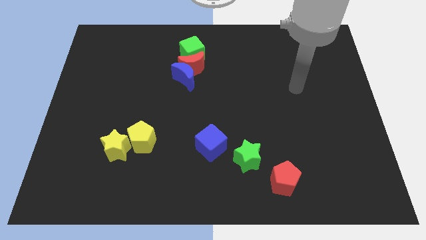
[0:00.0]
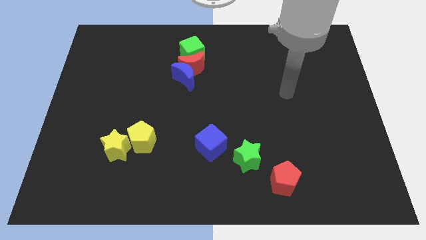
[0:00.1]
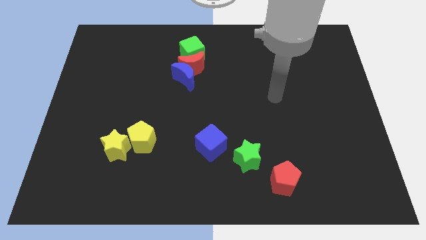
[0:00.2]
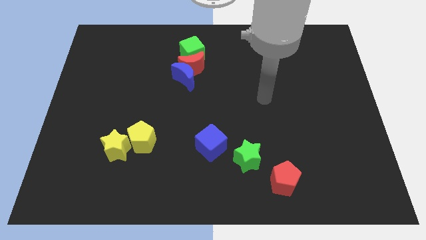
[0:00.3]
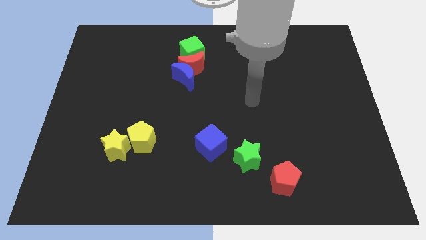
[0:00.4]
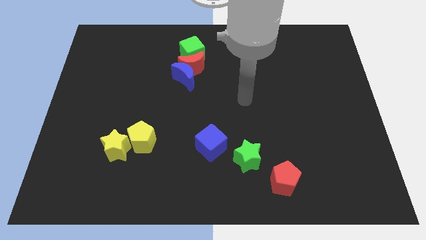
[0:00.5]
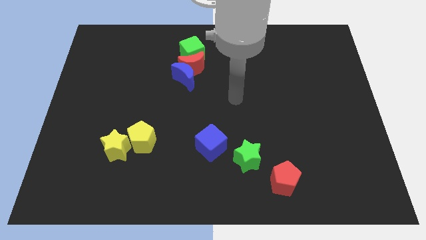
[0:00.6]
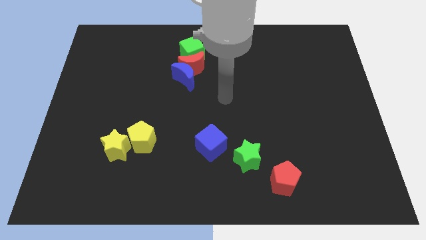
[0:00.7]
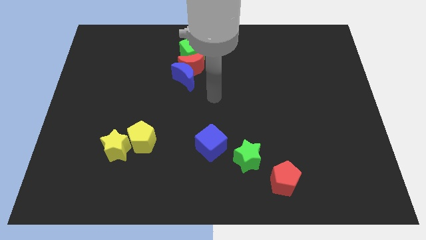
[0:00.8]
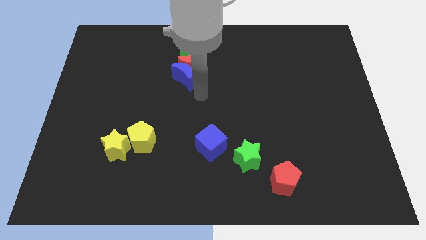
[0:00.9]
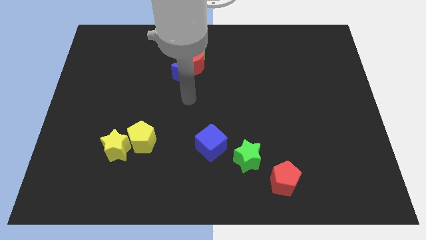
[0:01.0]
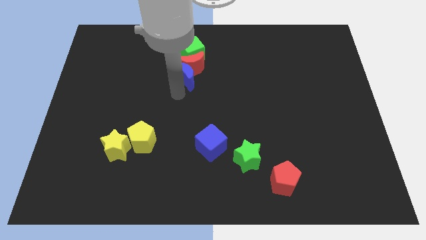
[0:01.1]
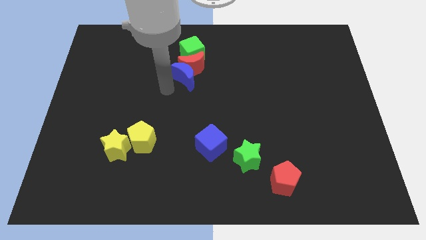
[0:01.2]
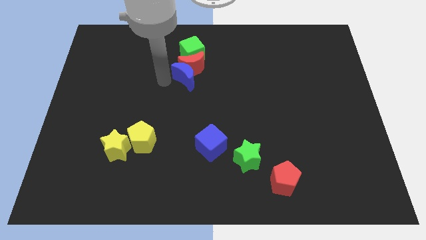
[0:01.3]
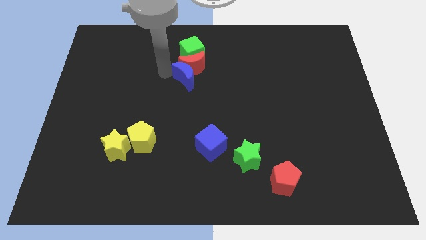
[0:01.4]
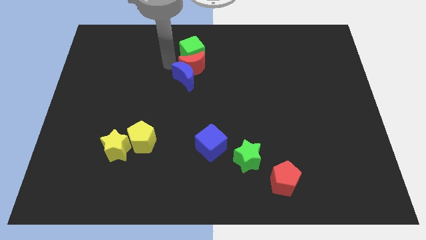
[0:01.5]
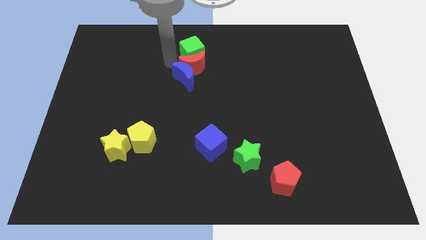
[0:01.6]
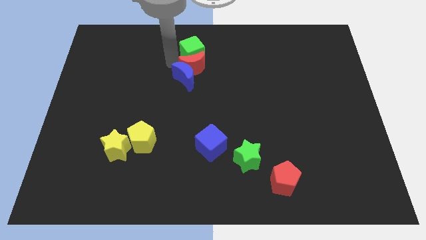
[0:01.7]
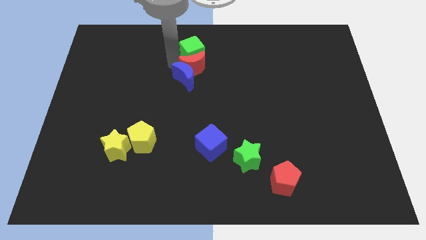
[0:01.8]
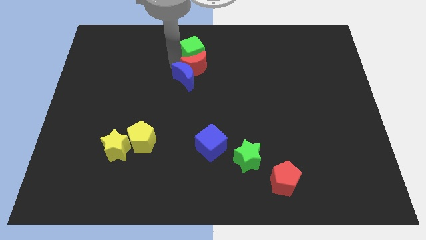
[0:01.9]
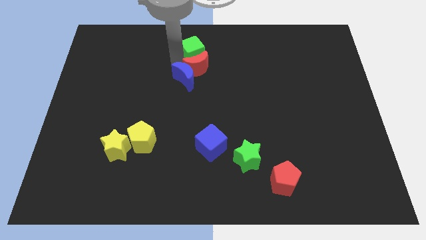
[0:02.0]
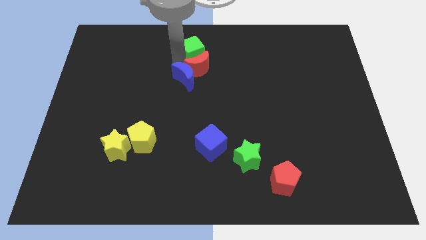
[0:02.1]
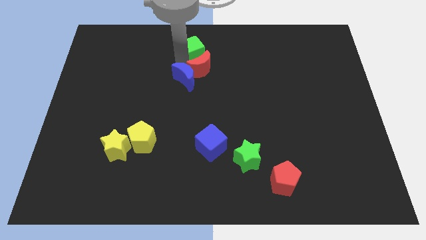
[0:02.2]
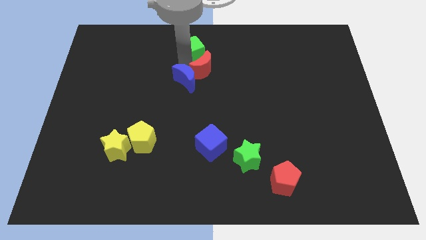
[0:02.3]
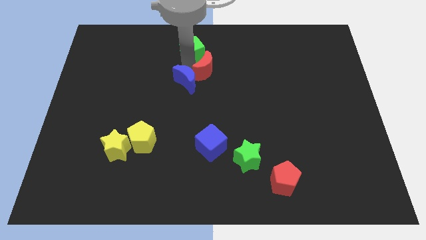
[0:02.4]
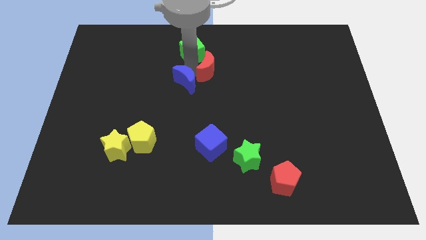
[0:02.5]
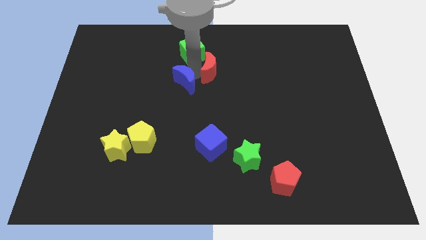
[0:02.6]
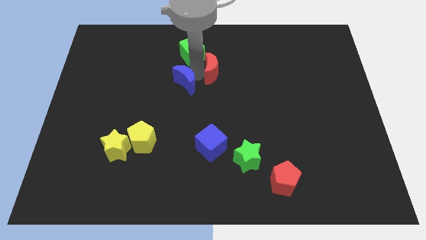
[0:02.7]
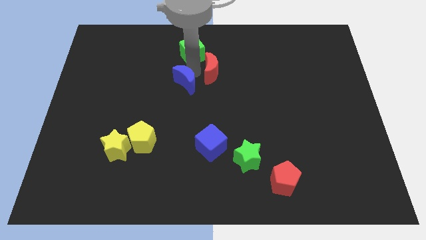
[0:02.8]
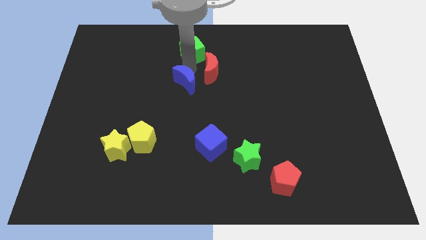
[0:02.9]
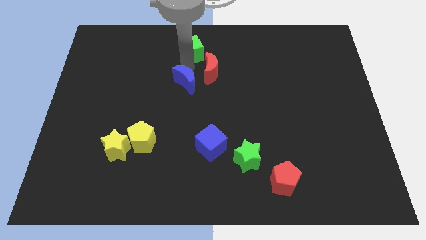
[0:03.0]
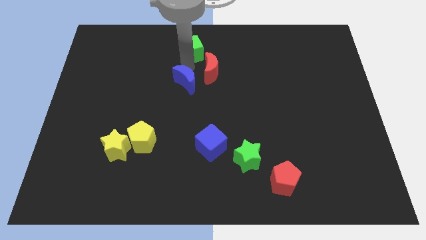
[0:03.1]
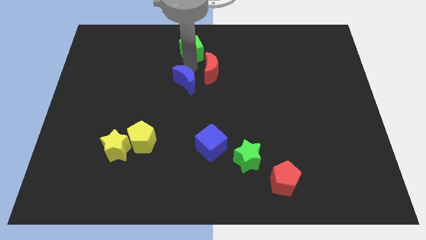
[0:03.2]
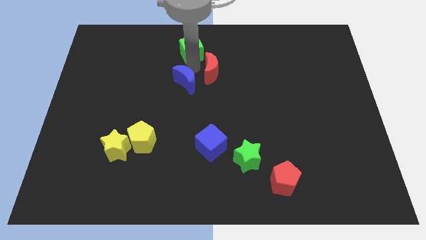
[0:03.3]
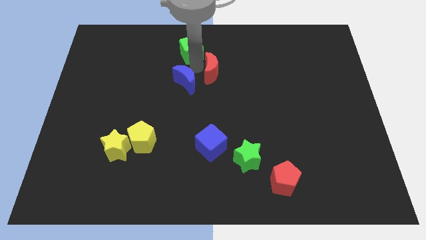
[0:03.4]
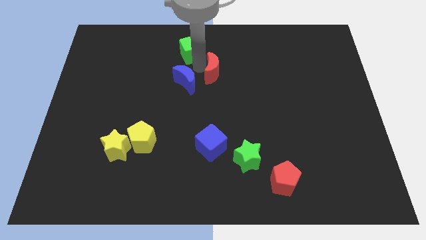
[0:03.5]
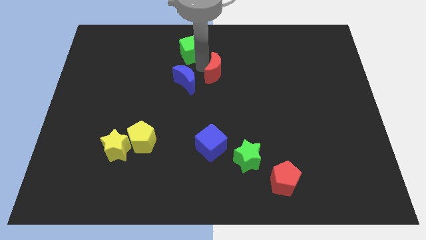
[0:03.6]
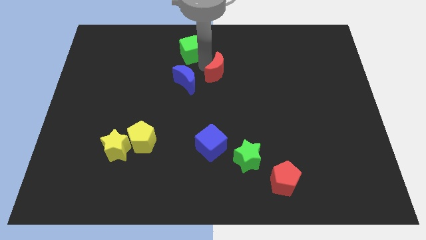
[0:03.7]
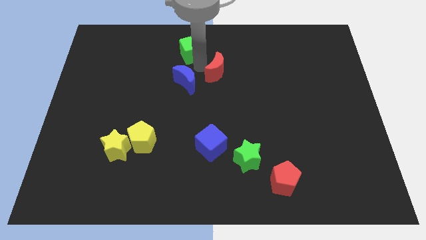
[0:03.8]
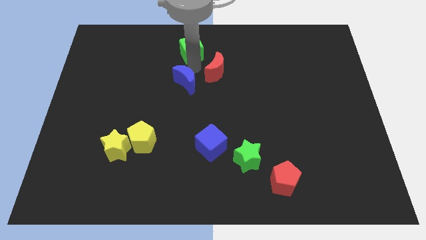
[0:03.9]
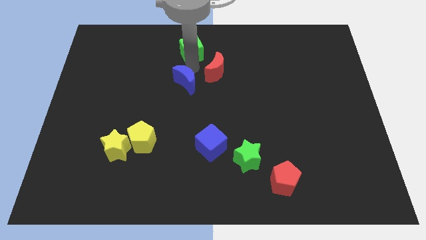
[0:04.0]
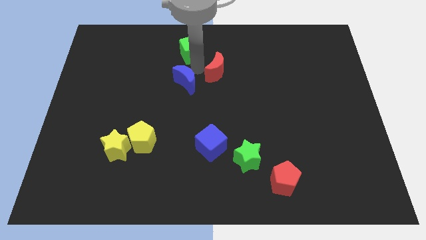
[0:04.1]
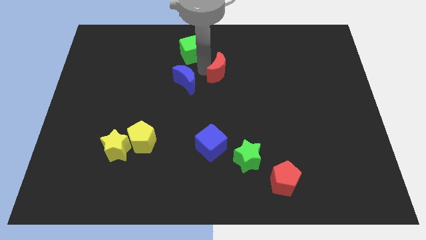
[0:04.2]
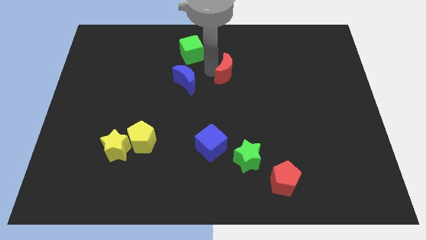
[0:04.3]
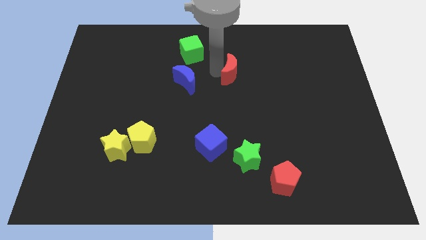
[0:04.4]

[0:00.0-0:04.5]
pull the red moon apart from the blue moon and green cube

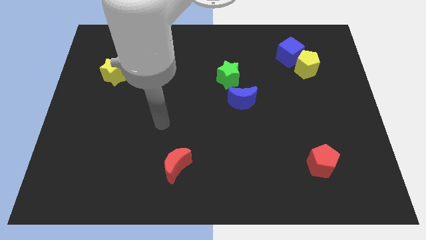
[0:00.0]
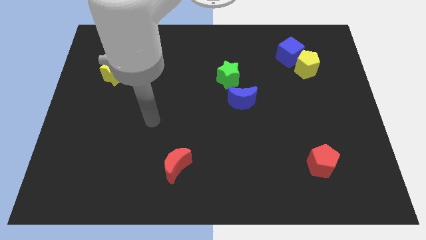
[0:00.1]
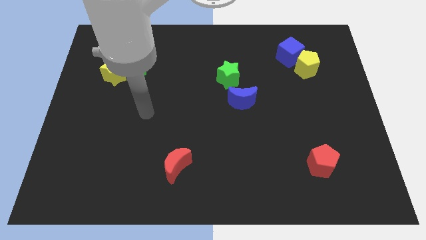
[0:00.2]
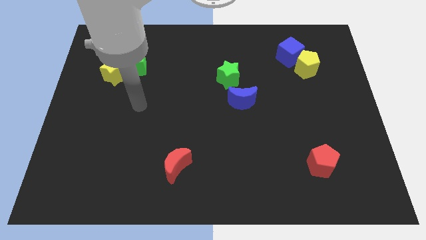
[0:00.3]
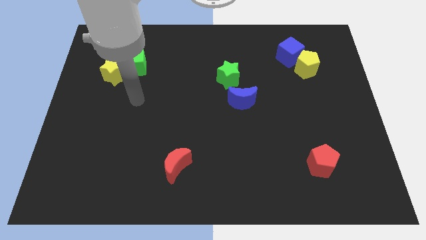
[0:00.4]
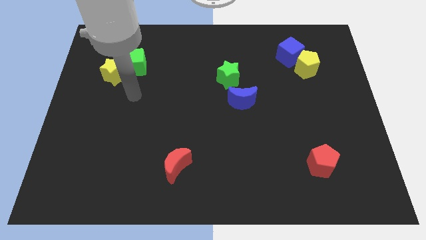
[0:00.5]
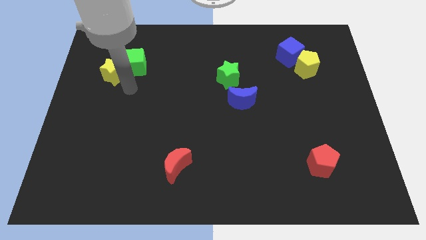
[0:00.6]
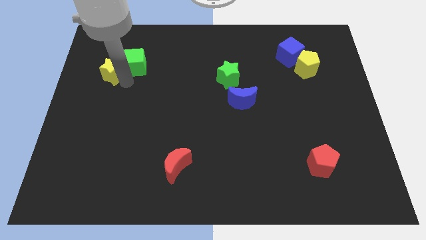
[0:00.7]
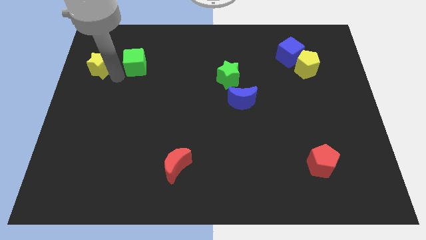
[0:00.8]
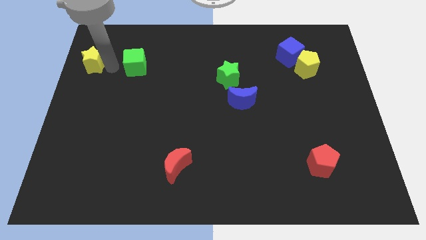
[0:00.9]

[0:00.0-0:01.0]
separate the green cube from the yellow star

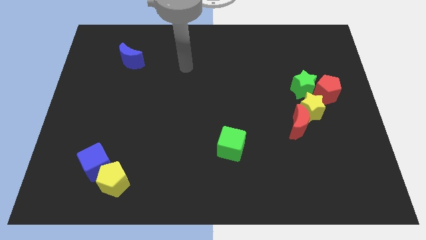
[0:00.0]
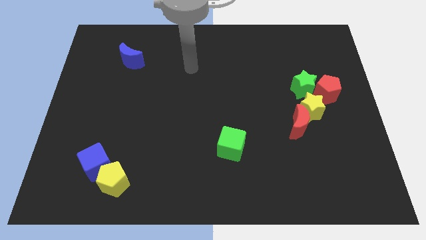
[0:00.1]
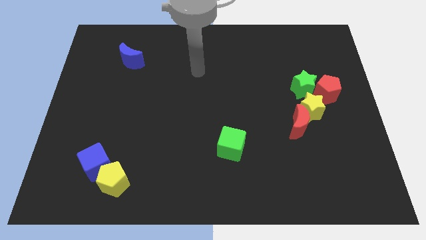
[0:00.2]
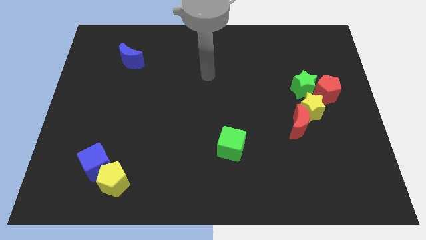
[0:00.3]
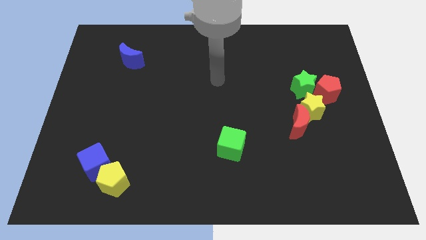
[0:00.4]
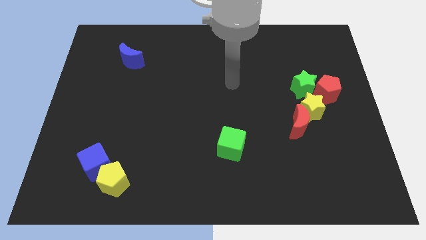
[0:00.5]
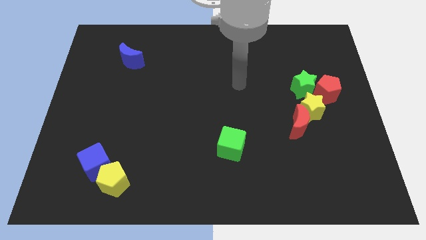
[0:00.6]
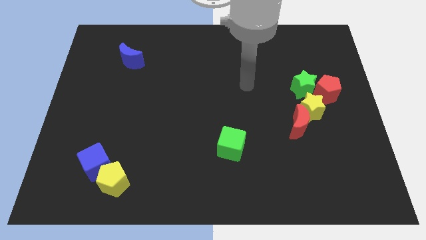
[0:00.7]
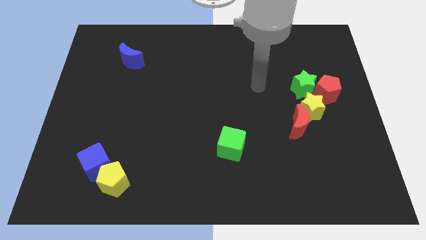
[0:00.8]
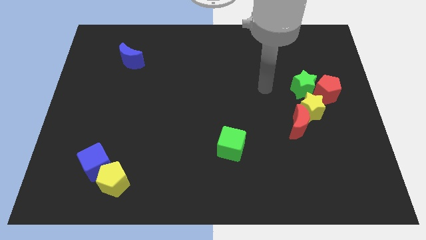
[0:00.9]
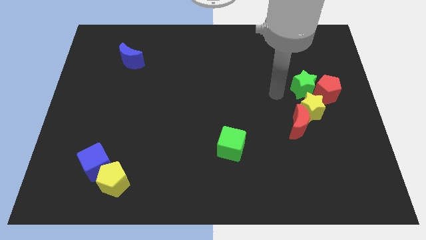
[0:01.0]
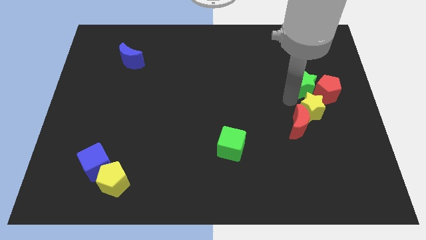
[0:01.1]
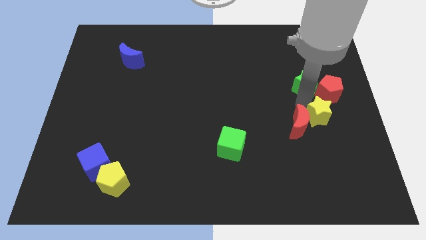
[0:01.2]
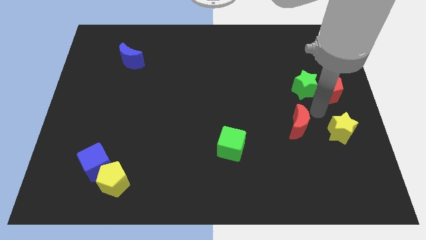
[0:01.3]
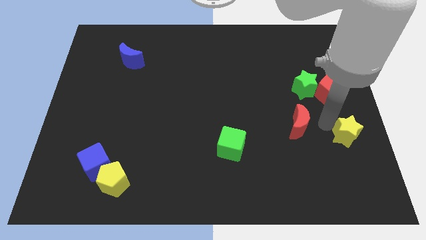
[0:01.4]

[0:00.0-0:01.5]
pull the red moon apart from the yellow star

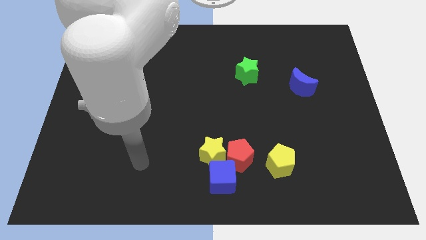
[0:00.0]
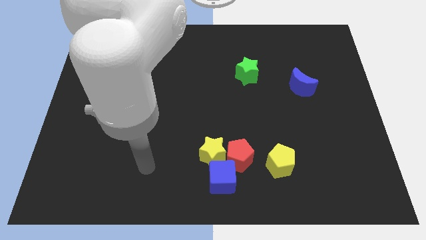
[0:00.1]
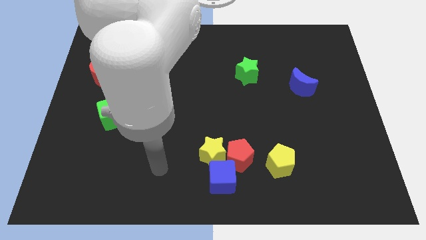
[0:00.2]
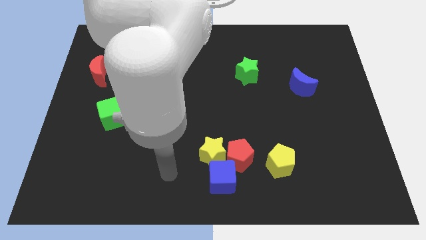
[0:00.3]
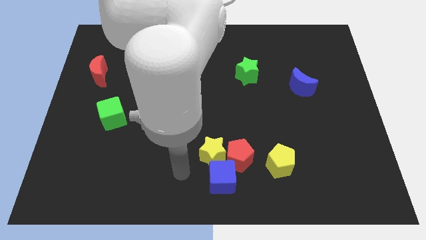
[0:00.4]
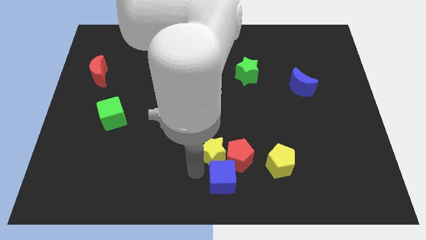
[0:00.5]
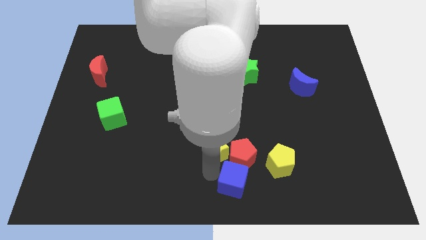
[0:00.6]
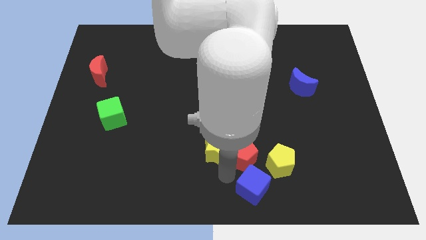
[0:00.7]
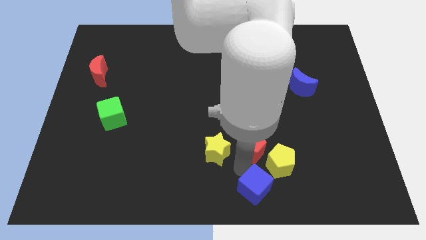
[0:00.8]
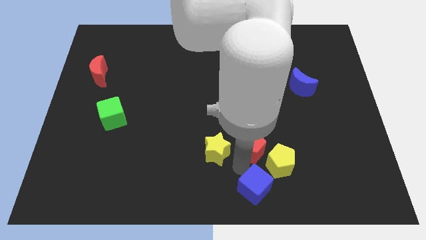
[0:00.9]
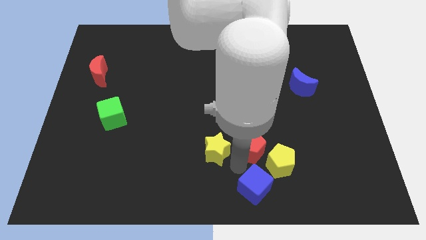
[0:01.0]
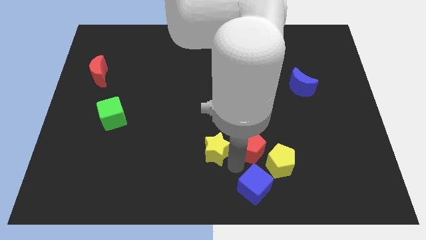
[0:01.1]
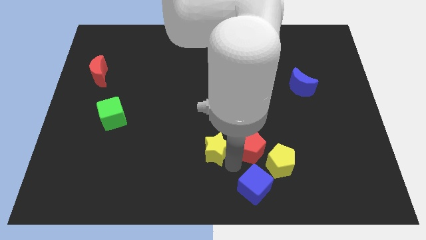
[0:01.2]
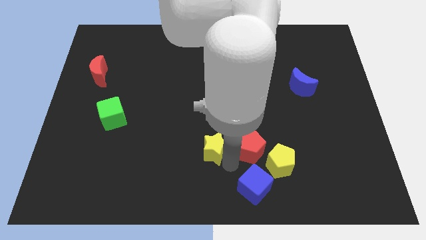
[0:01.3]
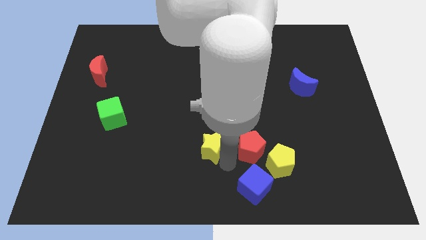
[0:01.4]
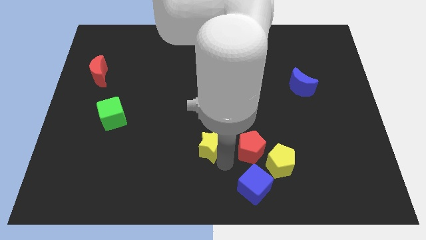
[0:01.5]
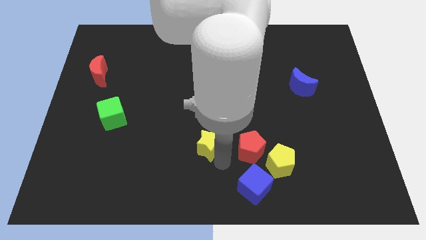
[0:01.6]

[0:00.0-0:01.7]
move the yellow star away from the red pentagon and blue cube

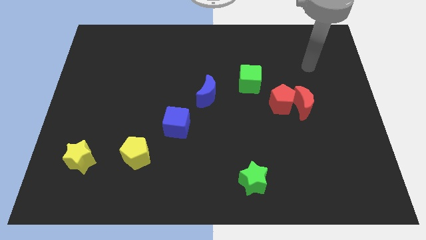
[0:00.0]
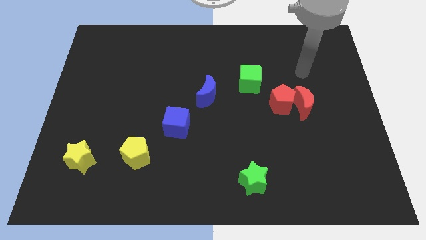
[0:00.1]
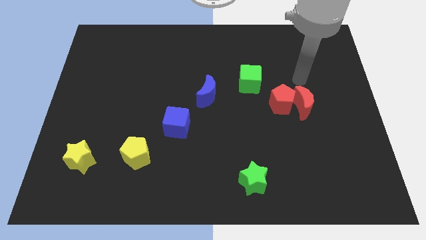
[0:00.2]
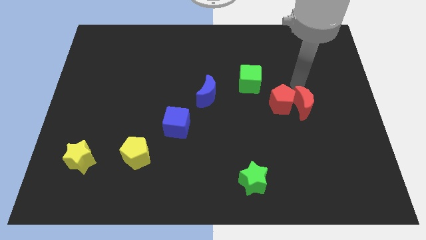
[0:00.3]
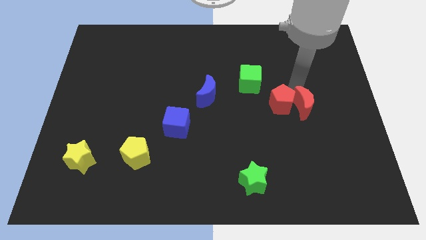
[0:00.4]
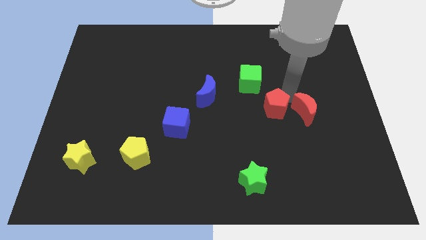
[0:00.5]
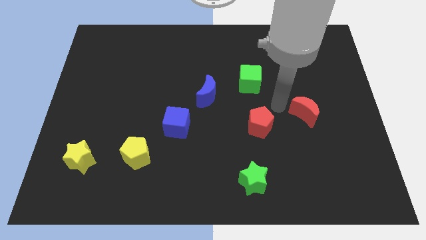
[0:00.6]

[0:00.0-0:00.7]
pull the red moon apart from the red pentagon
